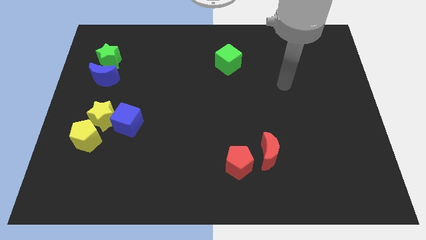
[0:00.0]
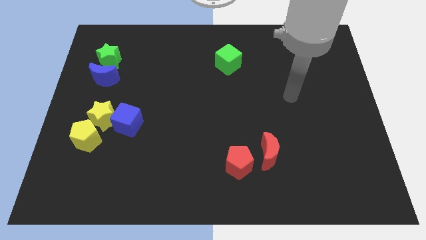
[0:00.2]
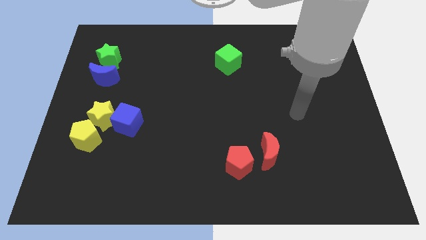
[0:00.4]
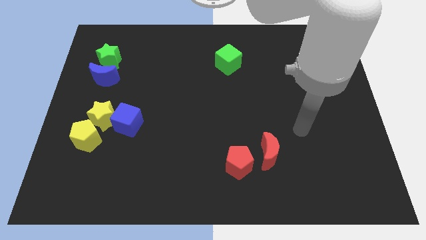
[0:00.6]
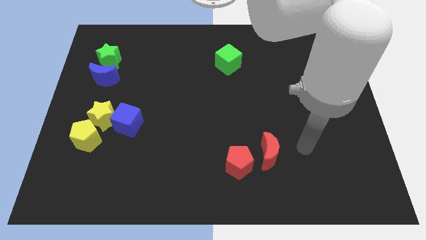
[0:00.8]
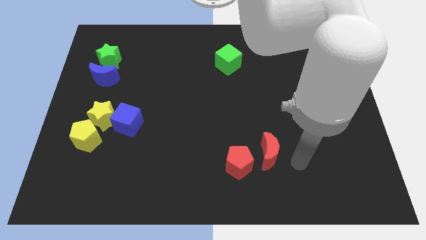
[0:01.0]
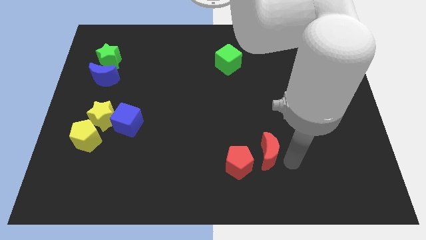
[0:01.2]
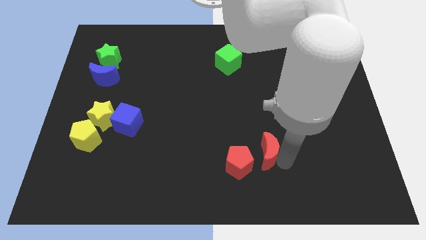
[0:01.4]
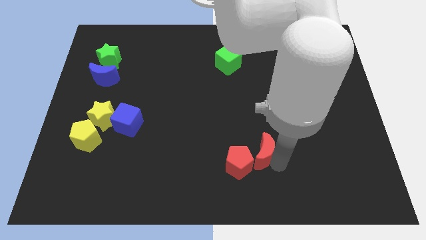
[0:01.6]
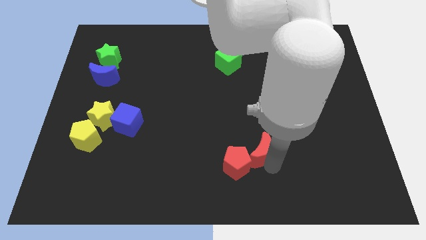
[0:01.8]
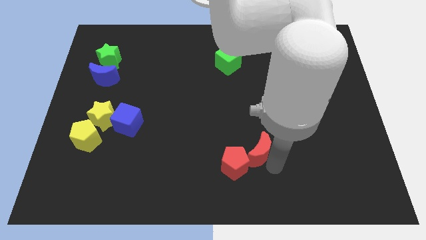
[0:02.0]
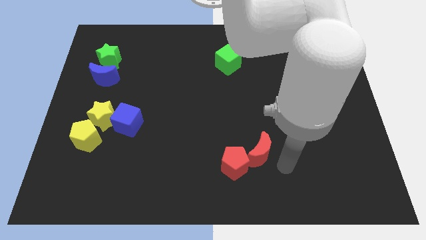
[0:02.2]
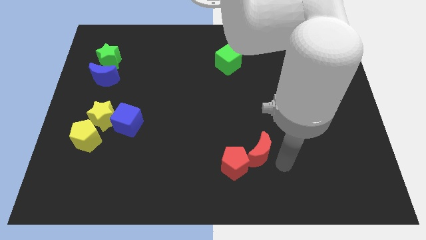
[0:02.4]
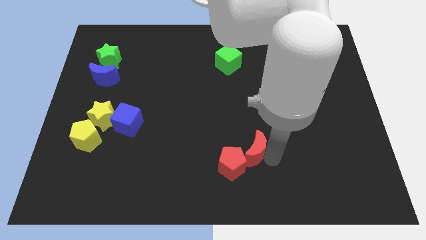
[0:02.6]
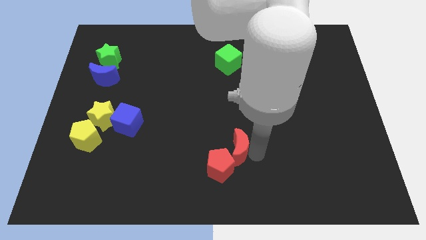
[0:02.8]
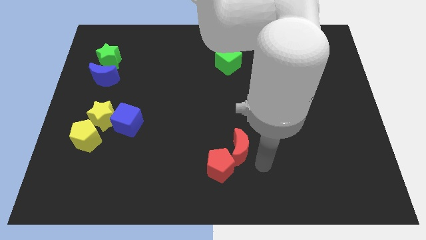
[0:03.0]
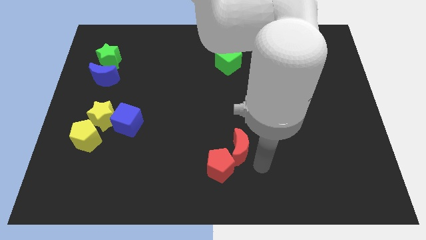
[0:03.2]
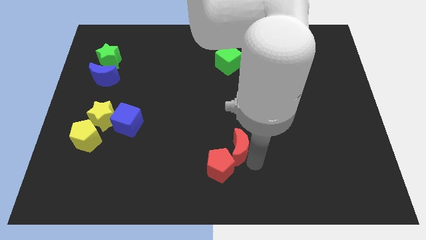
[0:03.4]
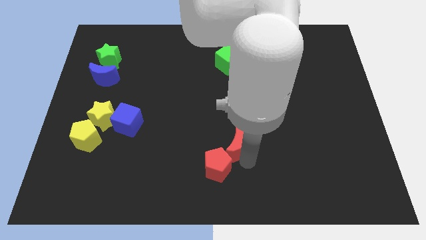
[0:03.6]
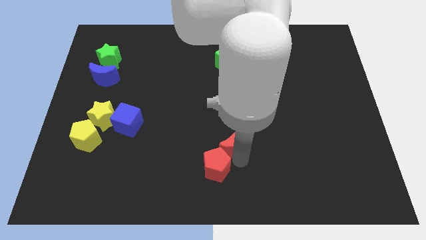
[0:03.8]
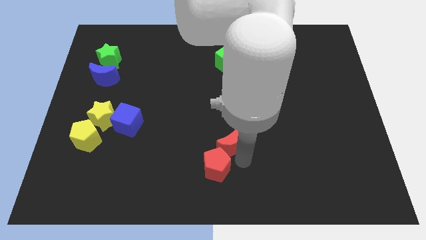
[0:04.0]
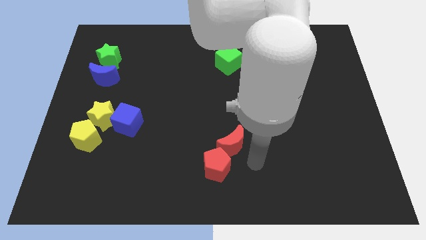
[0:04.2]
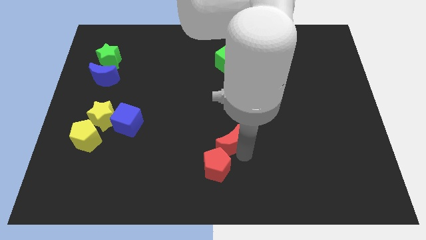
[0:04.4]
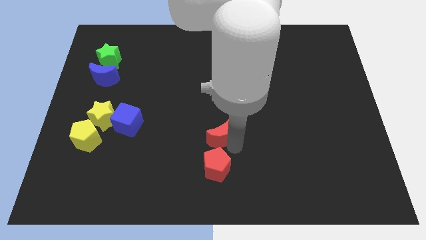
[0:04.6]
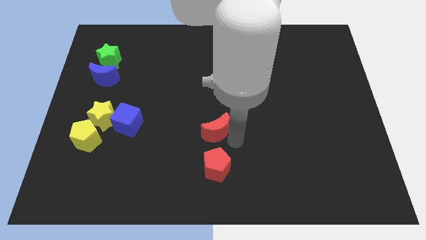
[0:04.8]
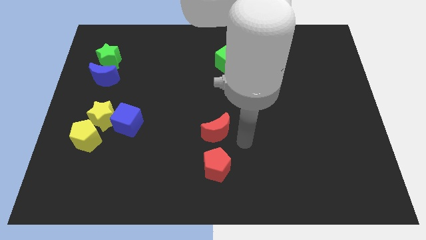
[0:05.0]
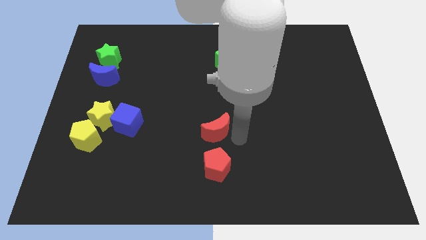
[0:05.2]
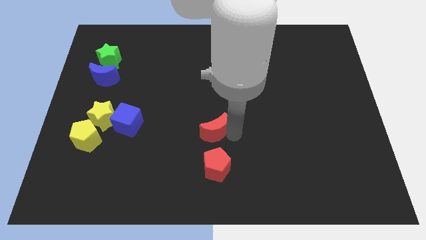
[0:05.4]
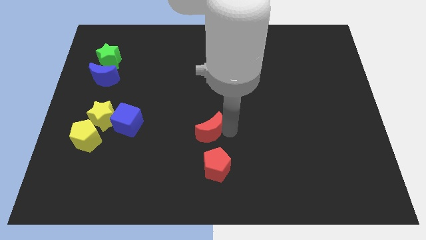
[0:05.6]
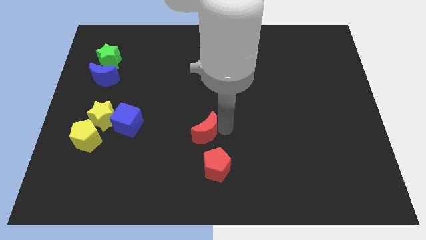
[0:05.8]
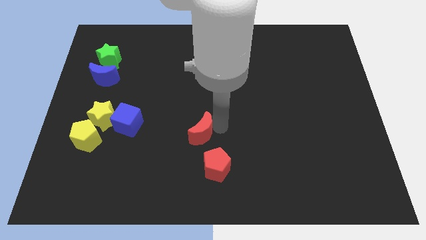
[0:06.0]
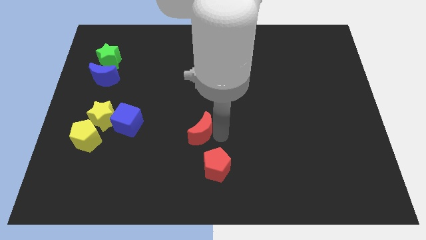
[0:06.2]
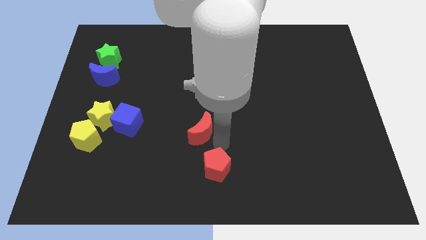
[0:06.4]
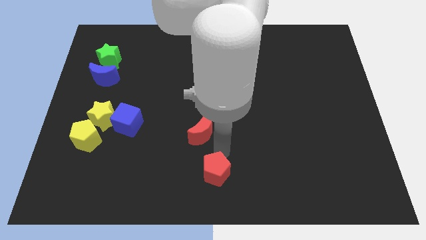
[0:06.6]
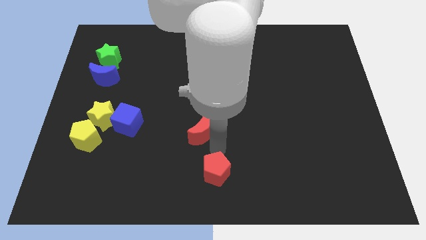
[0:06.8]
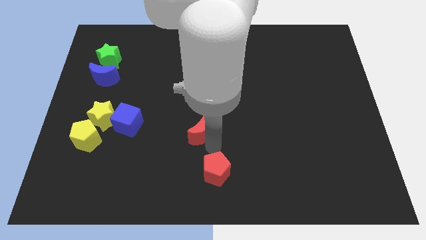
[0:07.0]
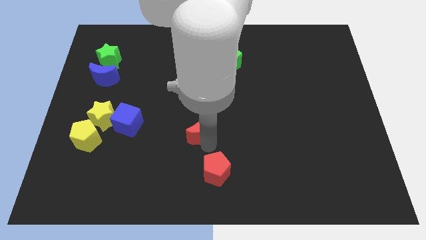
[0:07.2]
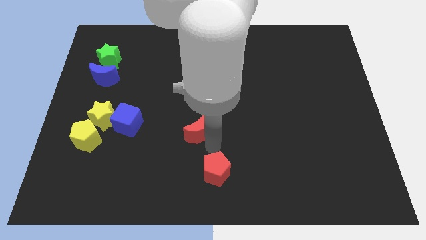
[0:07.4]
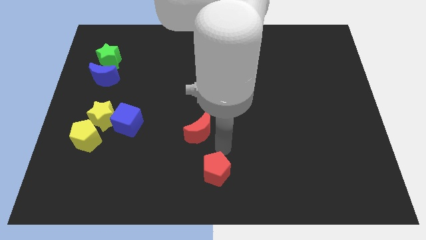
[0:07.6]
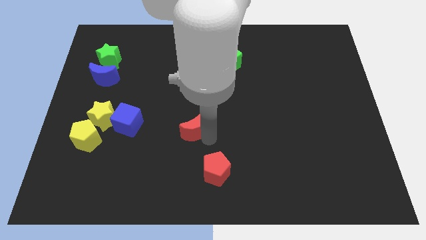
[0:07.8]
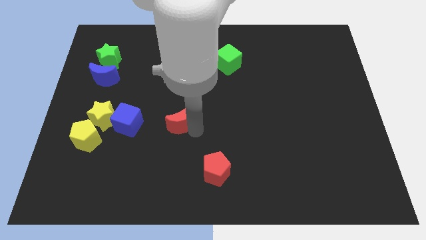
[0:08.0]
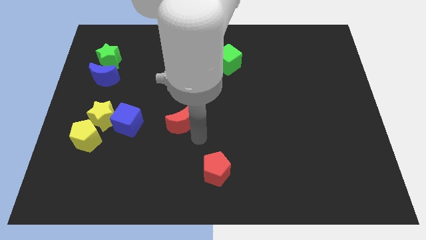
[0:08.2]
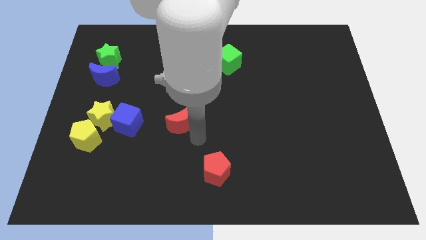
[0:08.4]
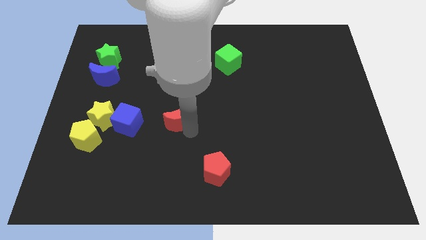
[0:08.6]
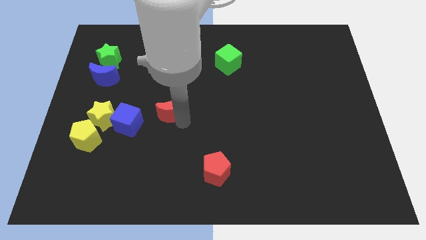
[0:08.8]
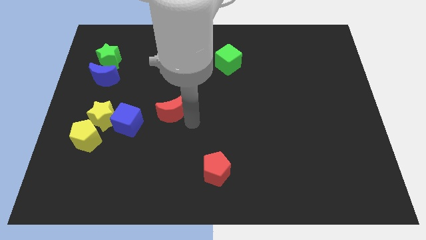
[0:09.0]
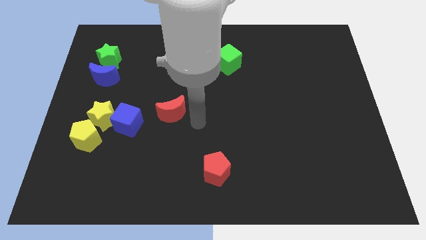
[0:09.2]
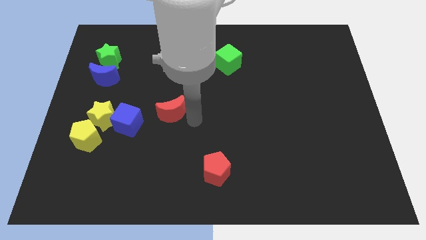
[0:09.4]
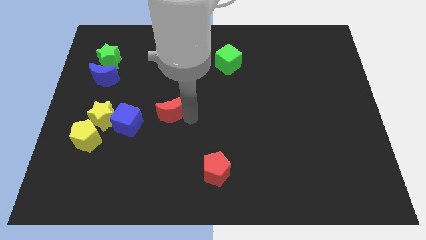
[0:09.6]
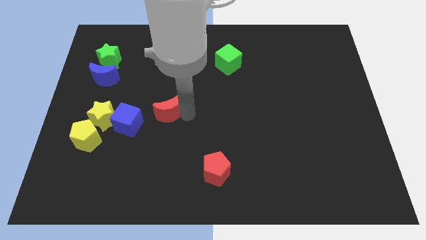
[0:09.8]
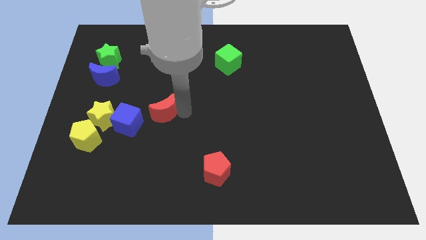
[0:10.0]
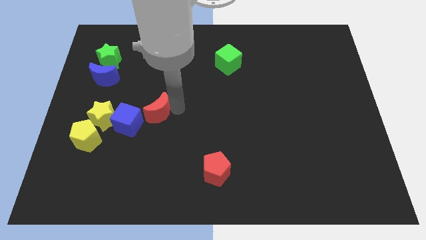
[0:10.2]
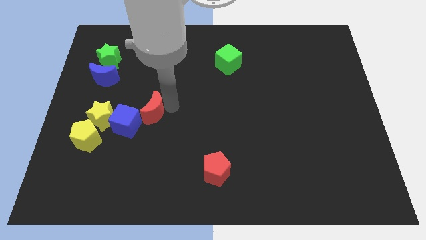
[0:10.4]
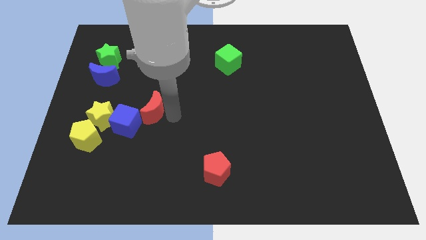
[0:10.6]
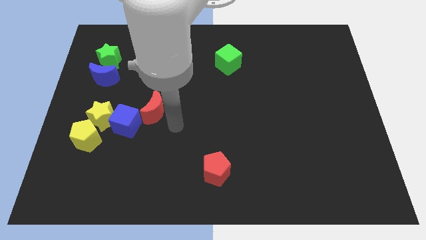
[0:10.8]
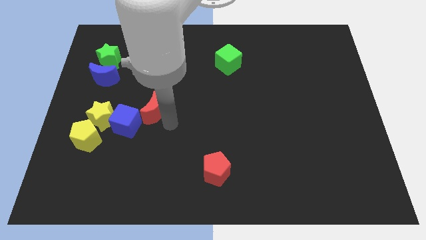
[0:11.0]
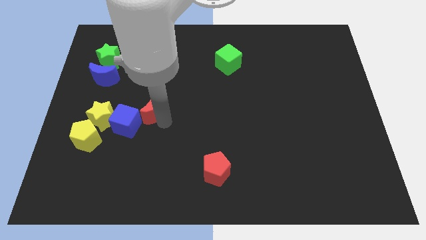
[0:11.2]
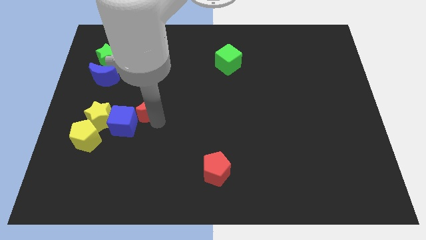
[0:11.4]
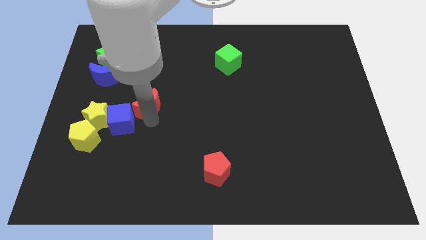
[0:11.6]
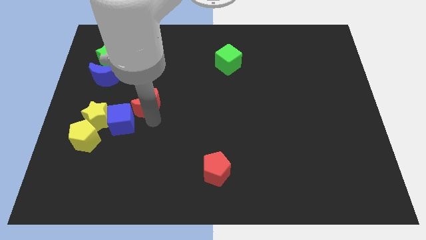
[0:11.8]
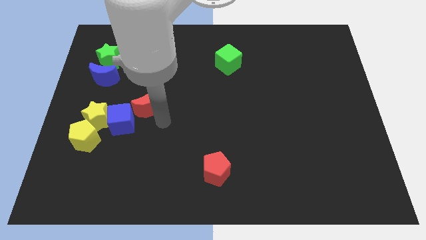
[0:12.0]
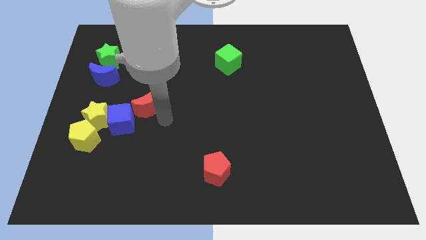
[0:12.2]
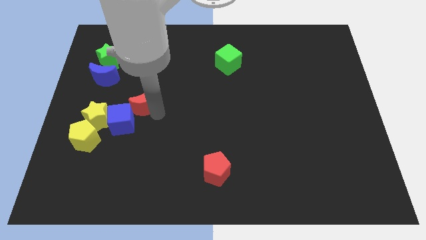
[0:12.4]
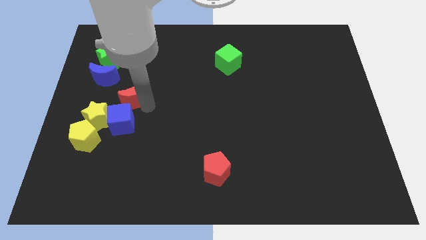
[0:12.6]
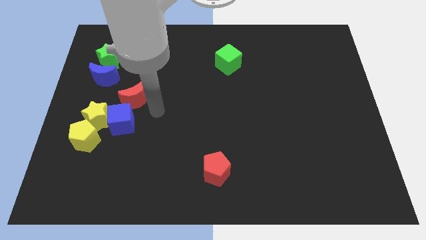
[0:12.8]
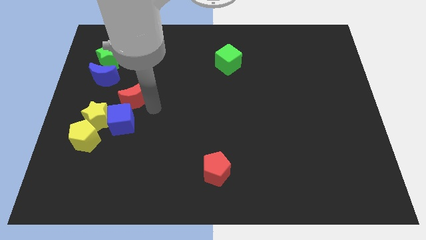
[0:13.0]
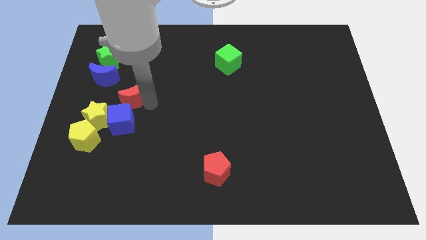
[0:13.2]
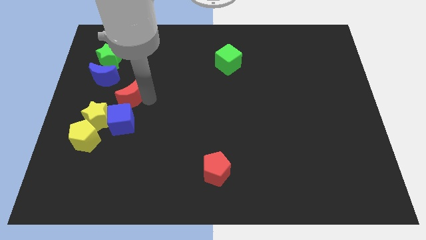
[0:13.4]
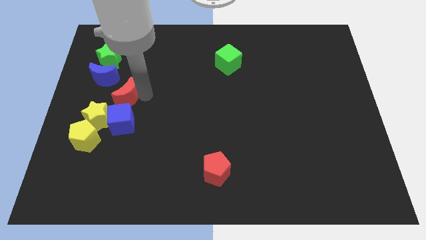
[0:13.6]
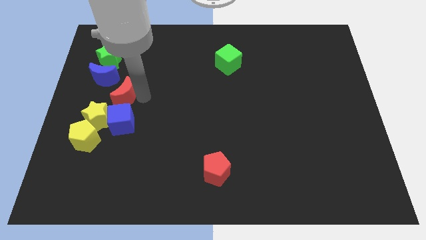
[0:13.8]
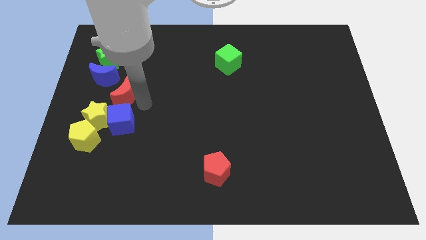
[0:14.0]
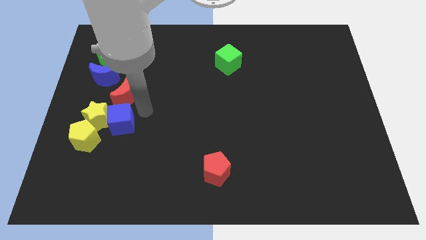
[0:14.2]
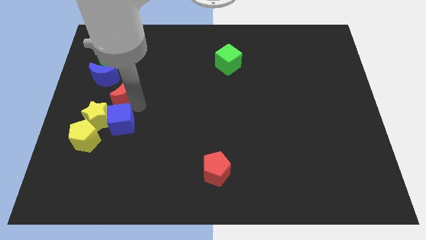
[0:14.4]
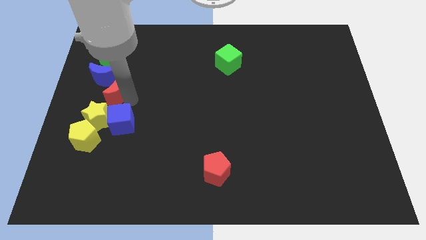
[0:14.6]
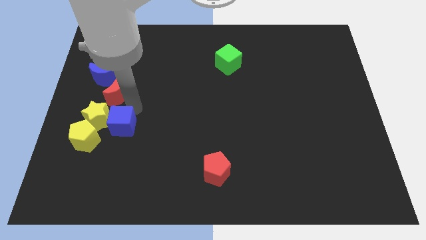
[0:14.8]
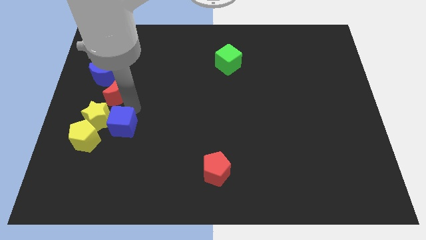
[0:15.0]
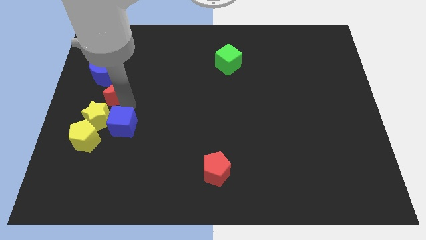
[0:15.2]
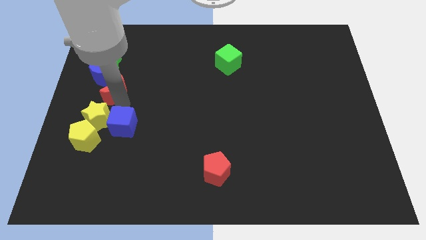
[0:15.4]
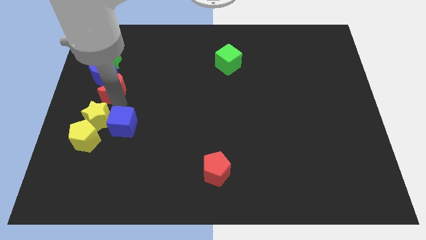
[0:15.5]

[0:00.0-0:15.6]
slide the red moon next to the blue moon
